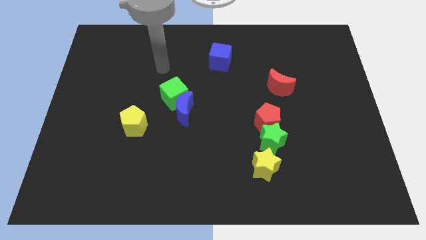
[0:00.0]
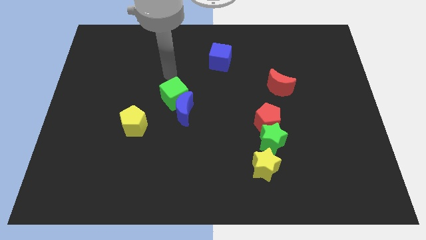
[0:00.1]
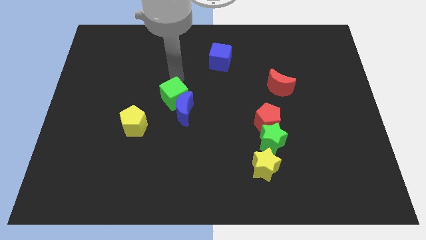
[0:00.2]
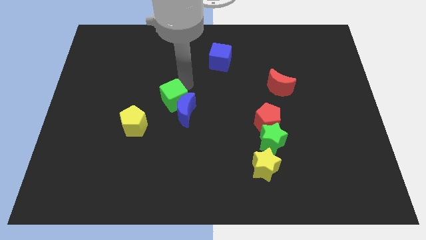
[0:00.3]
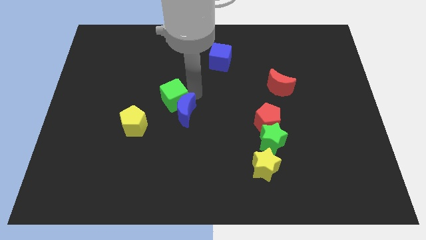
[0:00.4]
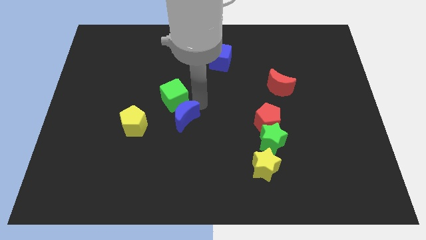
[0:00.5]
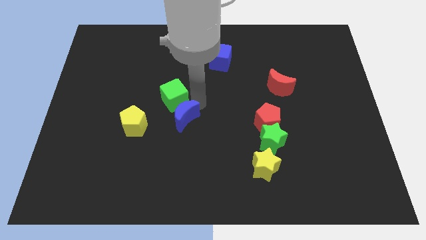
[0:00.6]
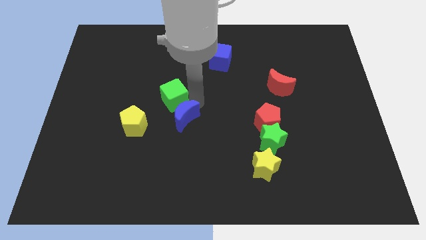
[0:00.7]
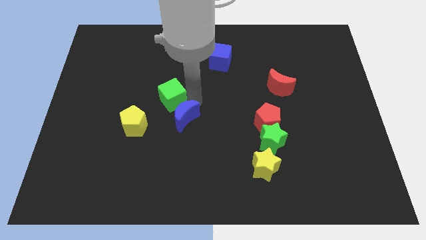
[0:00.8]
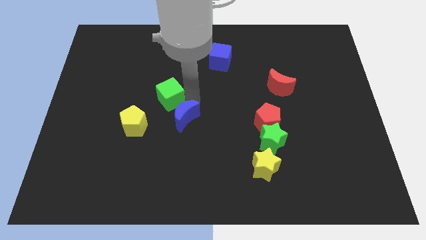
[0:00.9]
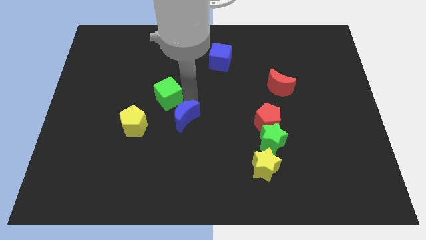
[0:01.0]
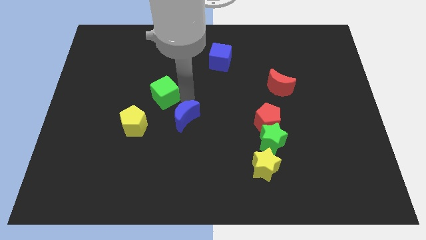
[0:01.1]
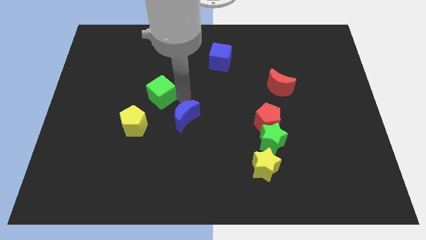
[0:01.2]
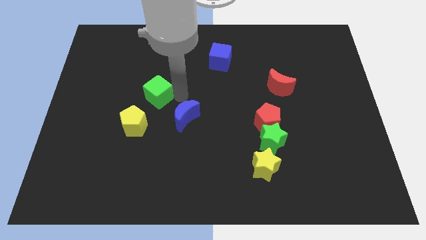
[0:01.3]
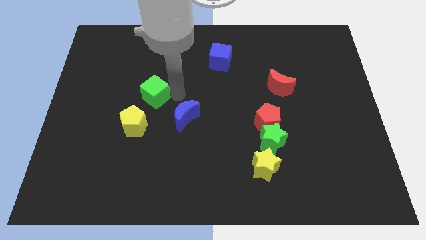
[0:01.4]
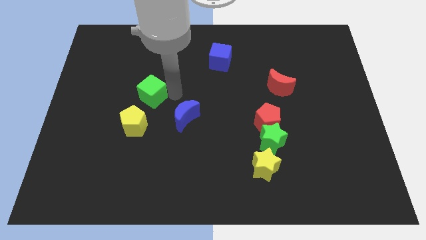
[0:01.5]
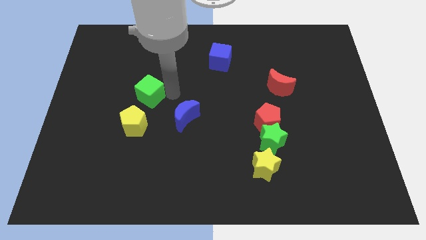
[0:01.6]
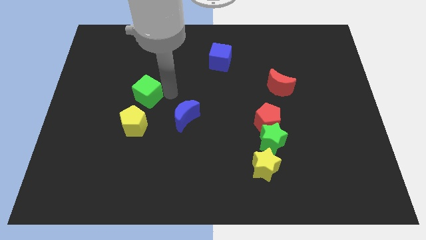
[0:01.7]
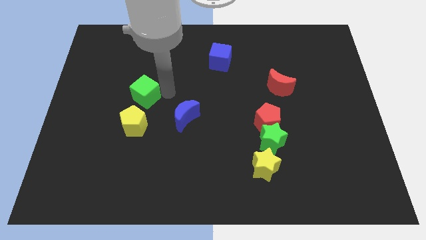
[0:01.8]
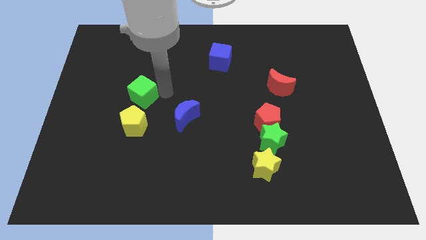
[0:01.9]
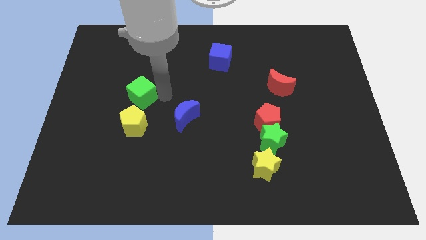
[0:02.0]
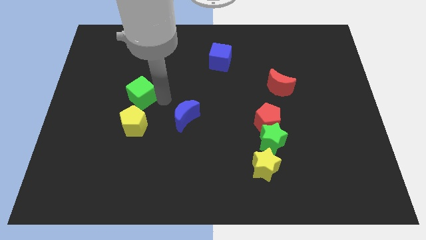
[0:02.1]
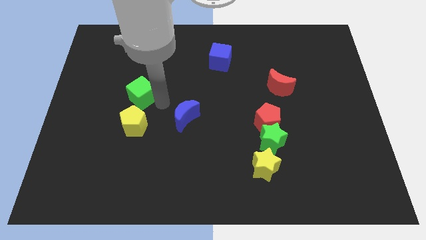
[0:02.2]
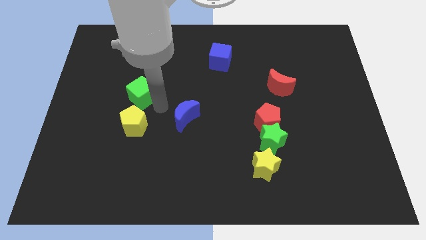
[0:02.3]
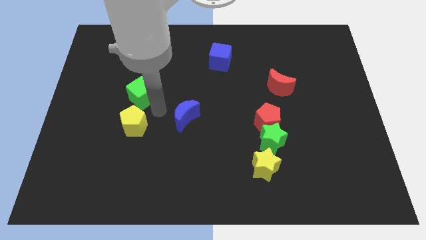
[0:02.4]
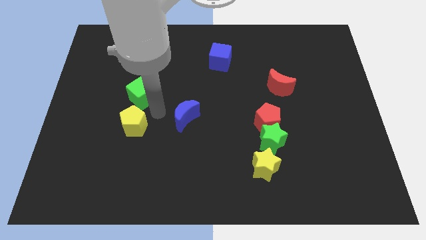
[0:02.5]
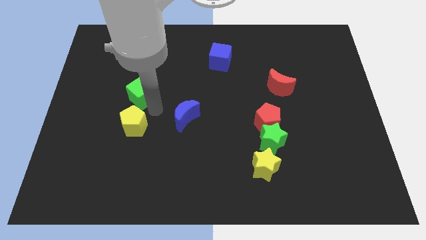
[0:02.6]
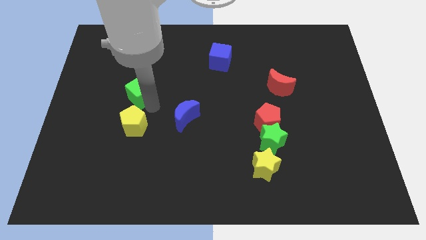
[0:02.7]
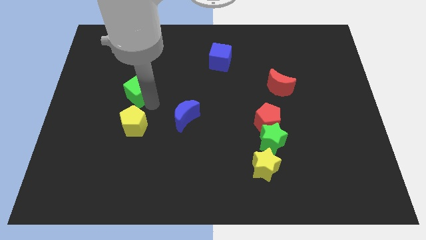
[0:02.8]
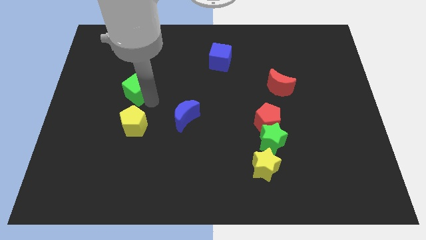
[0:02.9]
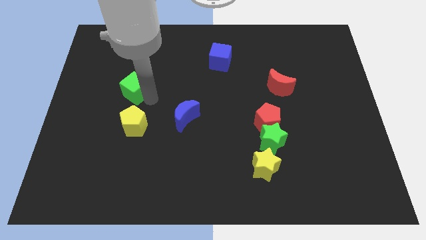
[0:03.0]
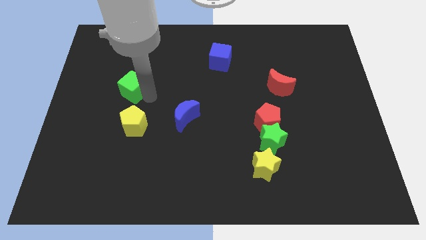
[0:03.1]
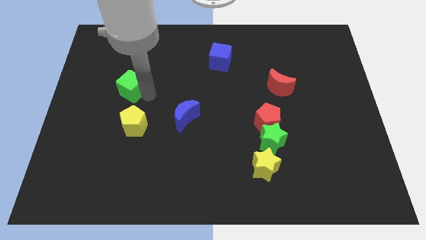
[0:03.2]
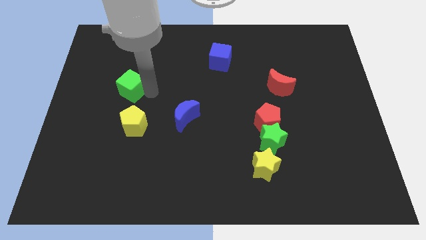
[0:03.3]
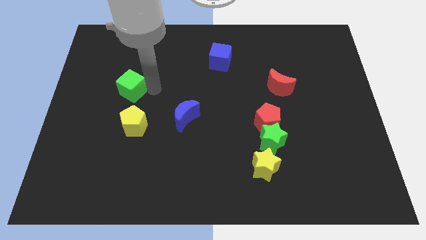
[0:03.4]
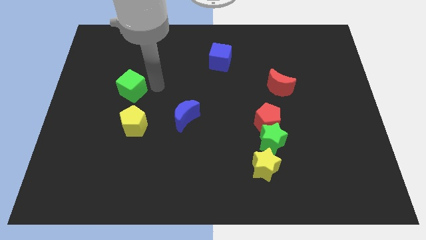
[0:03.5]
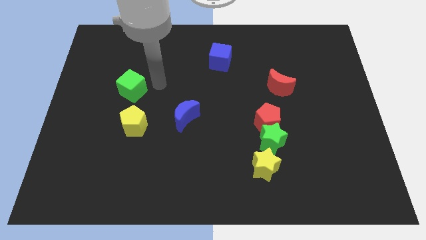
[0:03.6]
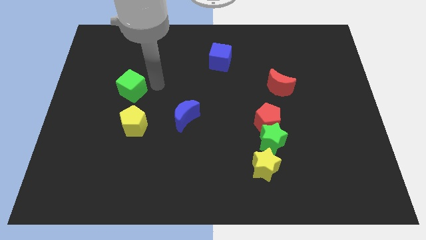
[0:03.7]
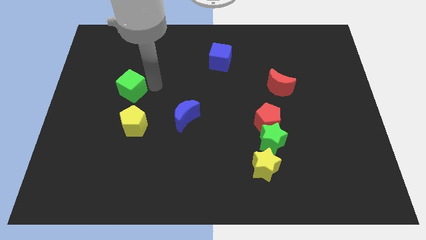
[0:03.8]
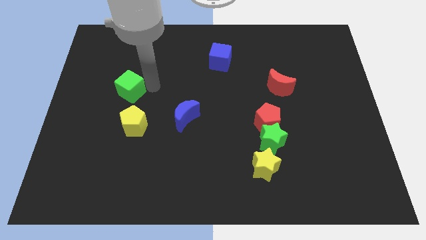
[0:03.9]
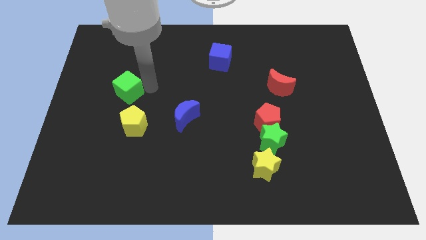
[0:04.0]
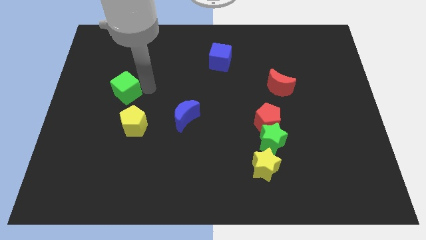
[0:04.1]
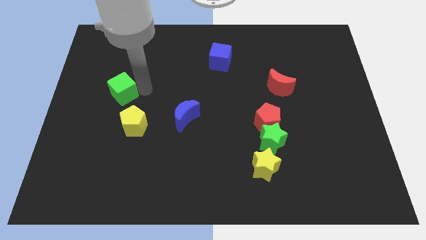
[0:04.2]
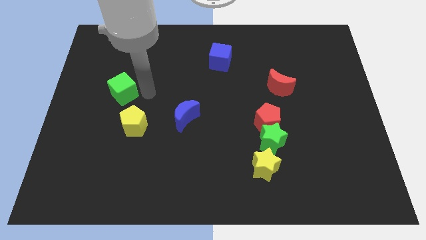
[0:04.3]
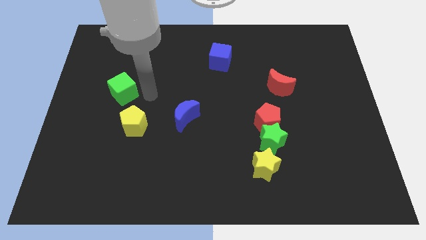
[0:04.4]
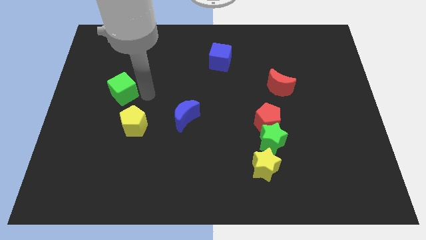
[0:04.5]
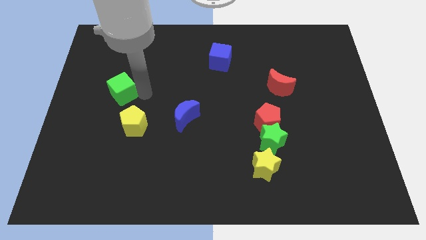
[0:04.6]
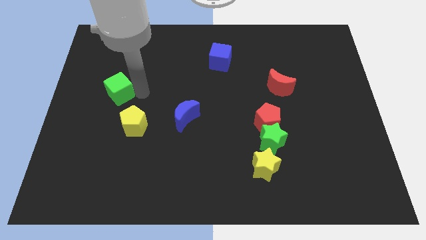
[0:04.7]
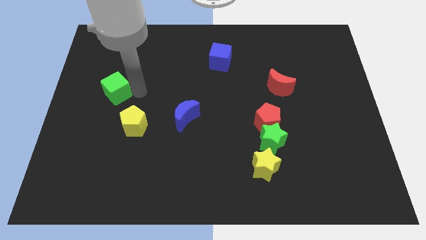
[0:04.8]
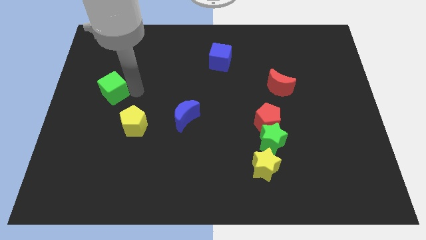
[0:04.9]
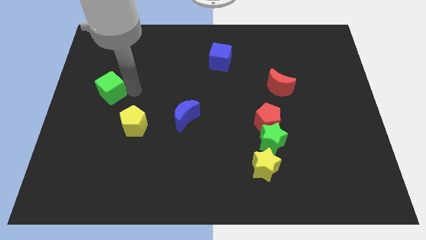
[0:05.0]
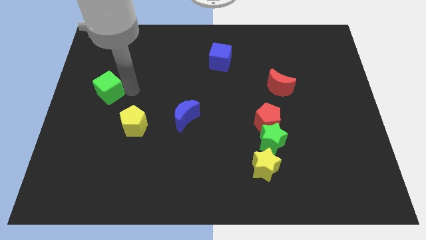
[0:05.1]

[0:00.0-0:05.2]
put the green cube to the center left

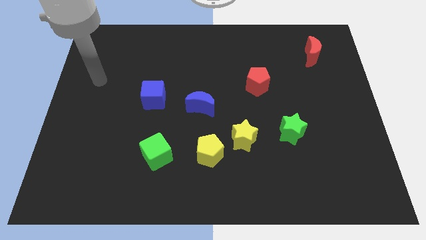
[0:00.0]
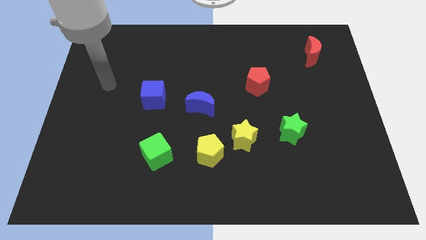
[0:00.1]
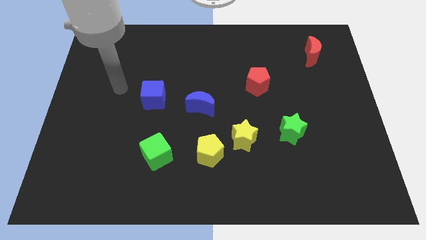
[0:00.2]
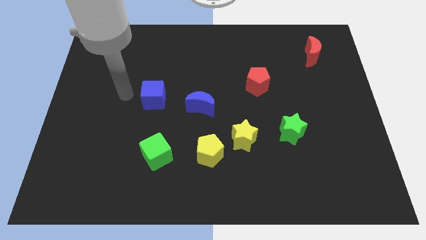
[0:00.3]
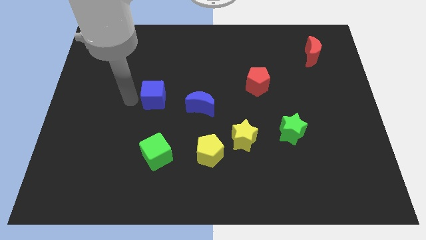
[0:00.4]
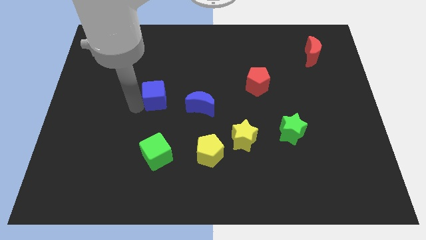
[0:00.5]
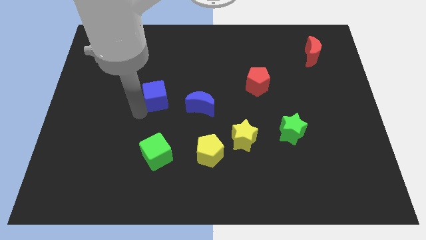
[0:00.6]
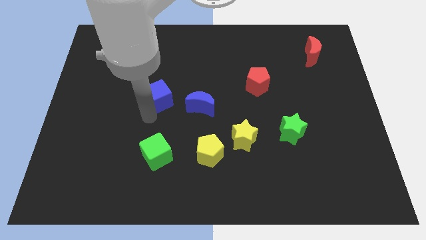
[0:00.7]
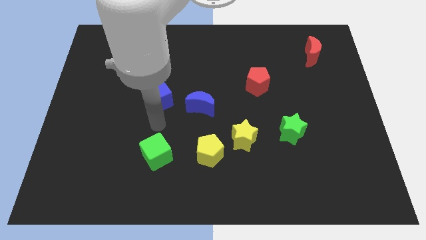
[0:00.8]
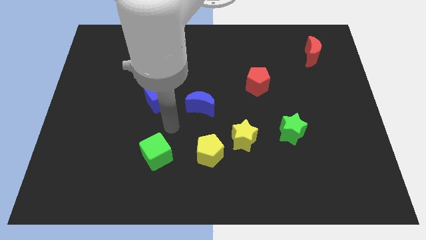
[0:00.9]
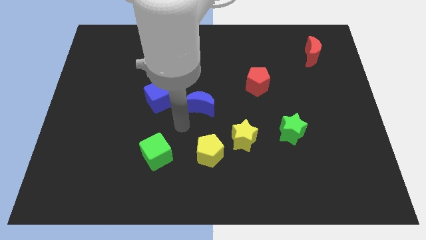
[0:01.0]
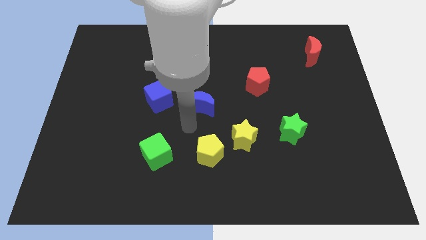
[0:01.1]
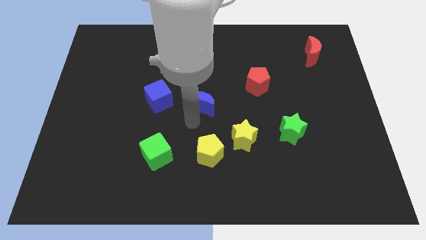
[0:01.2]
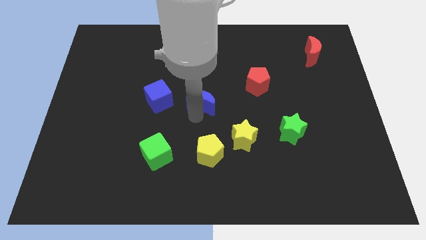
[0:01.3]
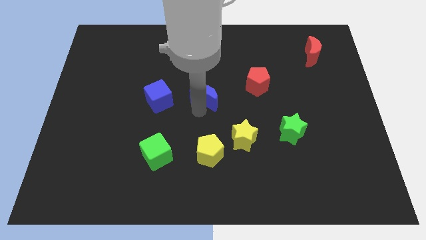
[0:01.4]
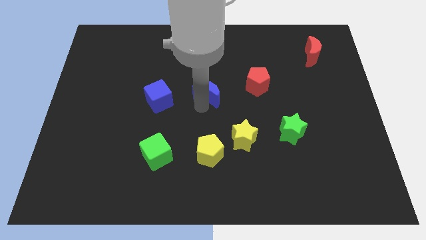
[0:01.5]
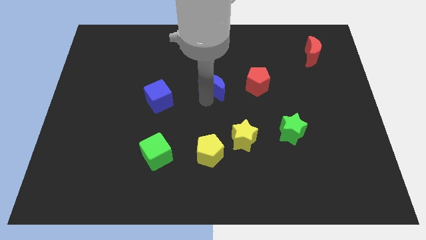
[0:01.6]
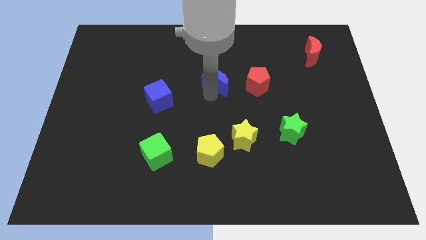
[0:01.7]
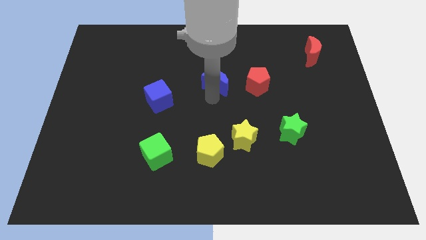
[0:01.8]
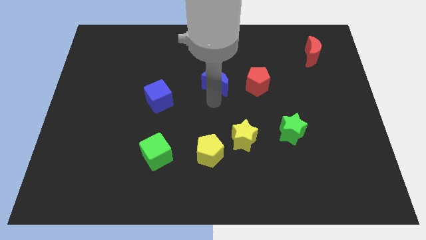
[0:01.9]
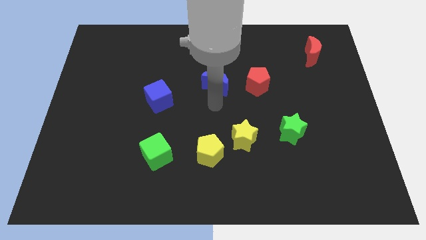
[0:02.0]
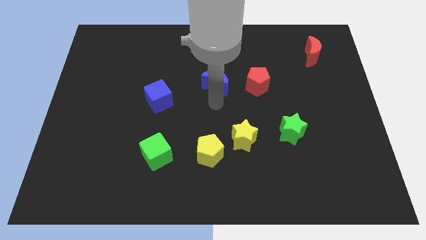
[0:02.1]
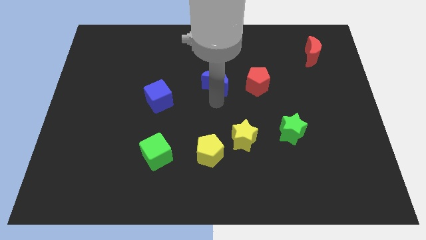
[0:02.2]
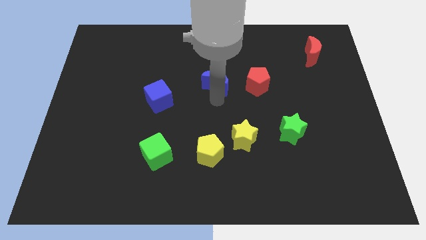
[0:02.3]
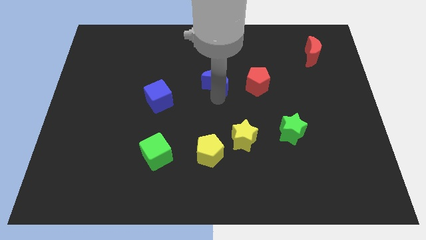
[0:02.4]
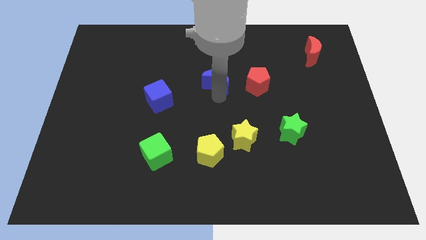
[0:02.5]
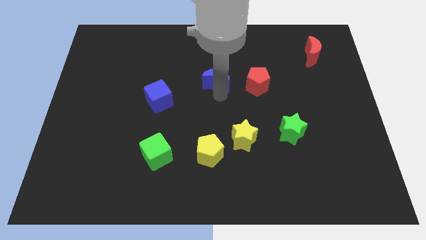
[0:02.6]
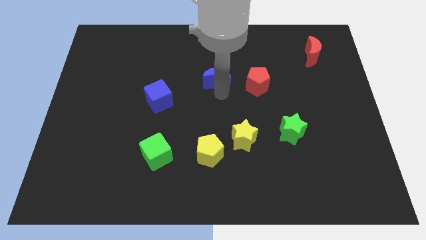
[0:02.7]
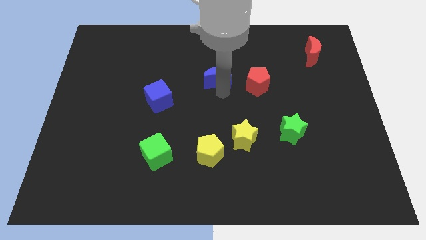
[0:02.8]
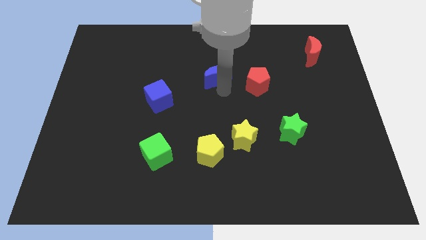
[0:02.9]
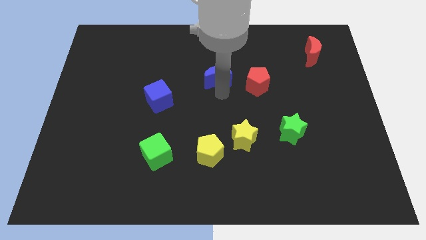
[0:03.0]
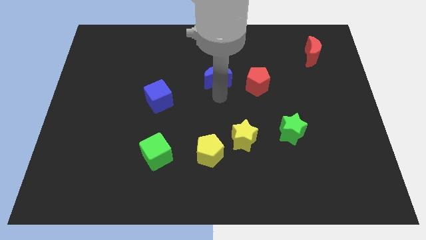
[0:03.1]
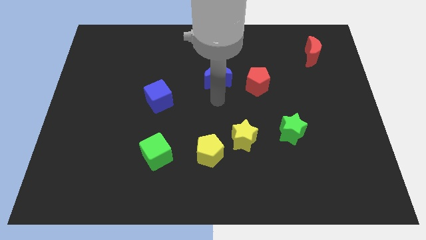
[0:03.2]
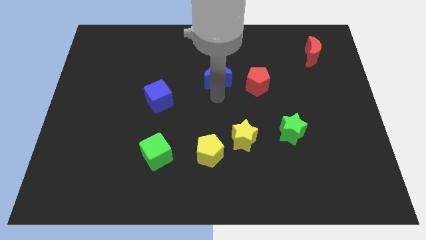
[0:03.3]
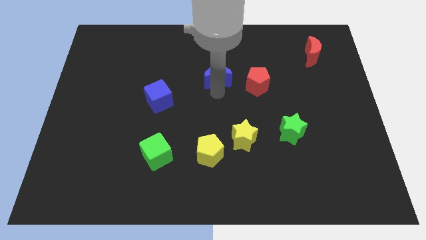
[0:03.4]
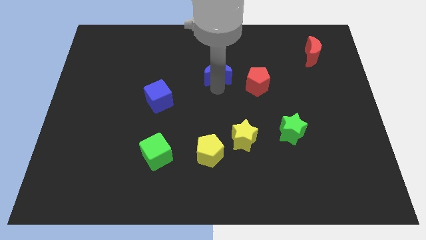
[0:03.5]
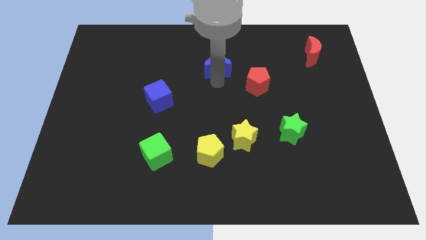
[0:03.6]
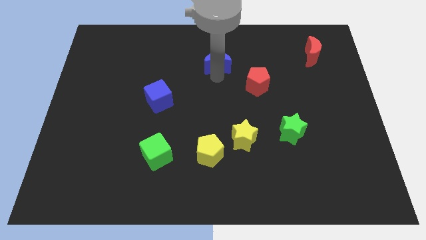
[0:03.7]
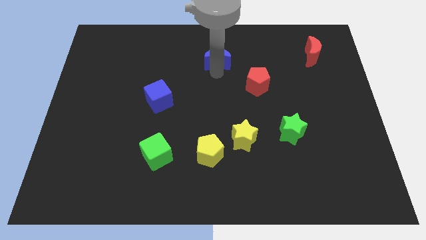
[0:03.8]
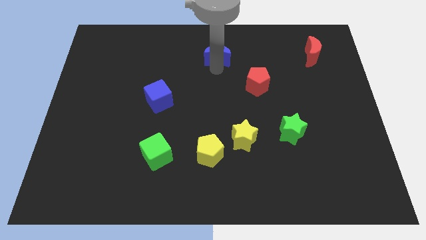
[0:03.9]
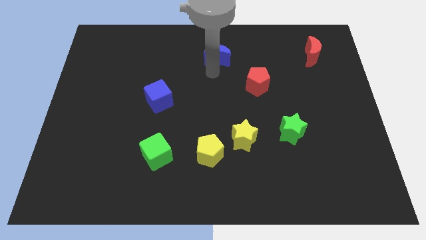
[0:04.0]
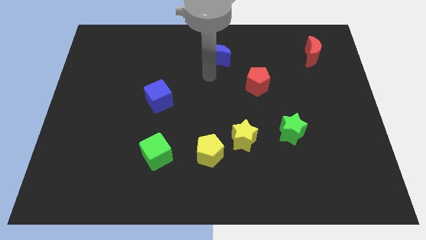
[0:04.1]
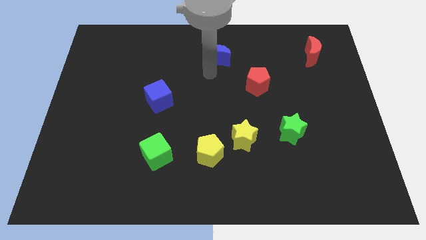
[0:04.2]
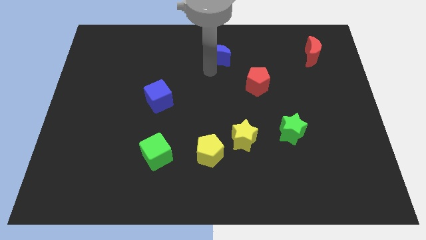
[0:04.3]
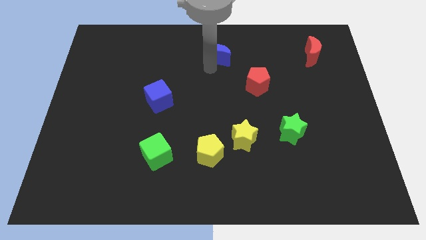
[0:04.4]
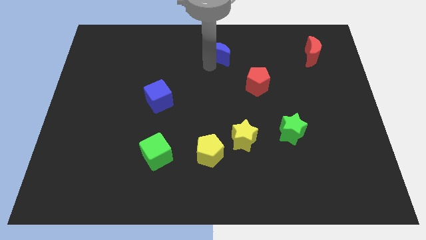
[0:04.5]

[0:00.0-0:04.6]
push the blue moon to the top side
